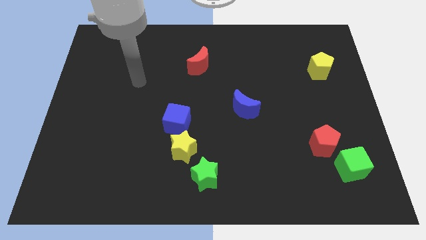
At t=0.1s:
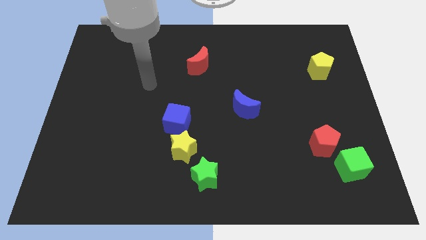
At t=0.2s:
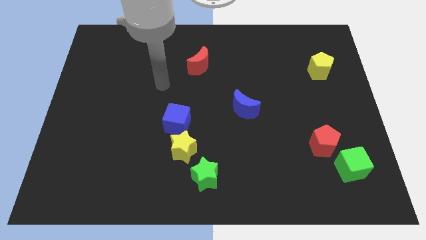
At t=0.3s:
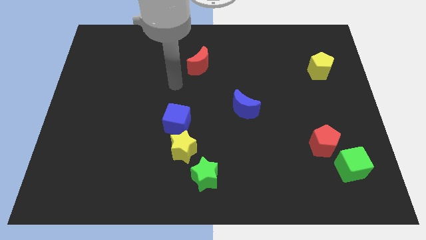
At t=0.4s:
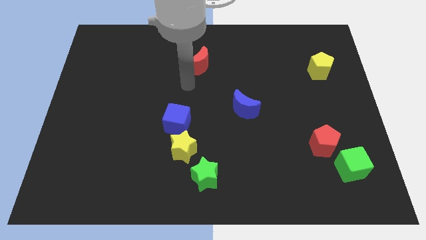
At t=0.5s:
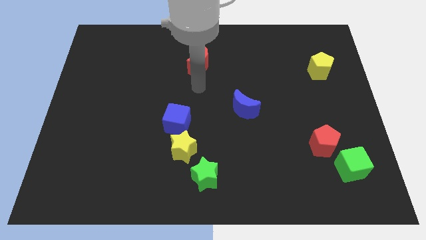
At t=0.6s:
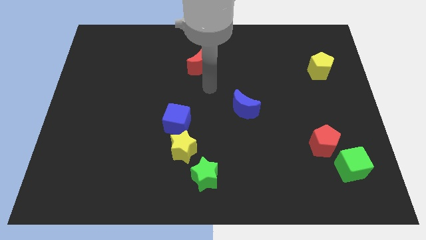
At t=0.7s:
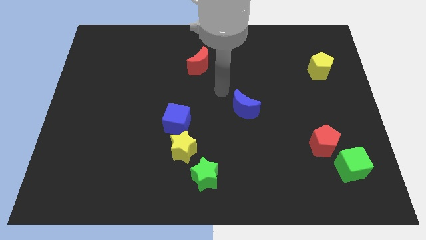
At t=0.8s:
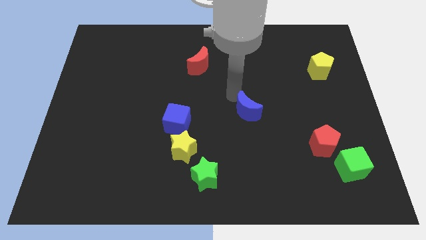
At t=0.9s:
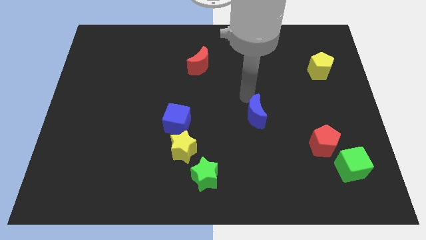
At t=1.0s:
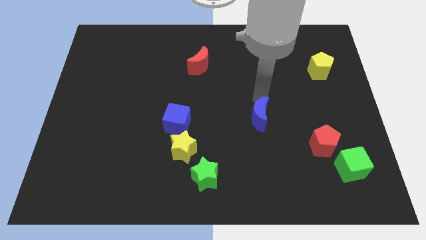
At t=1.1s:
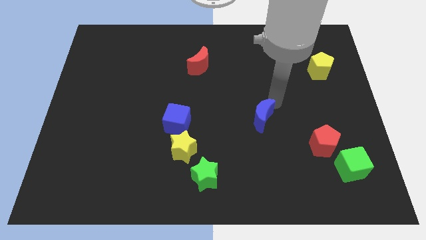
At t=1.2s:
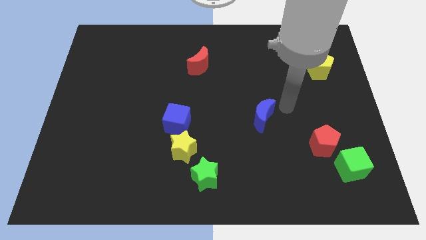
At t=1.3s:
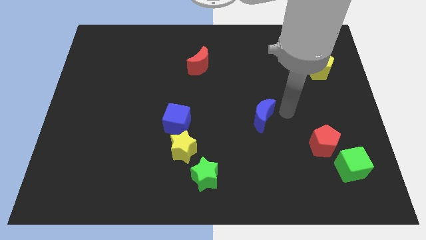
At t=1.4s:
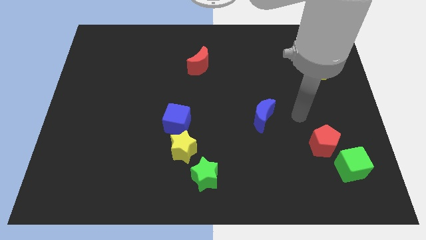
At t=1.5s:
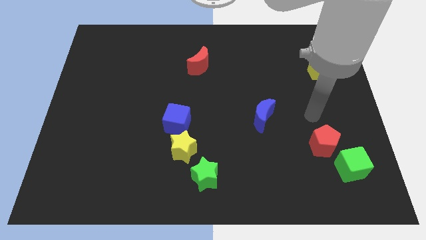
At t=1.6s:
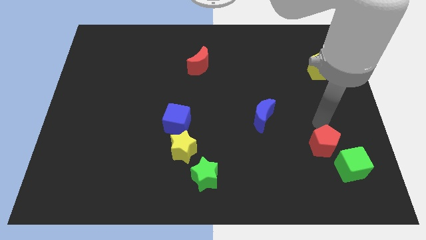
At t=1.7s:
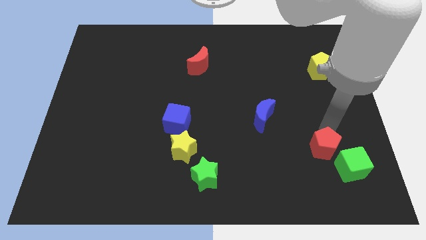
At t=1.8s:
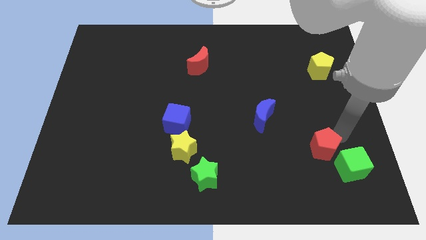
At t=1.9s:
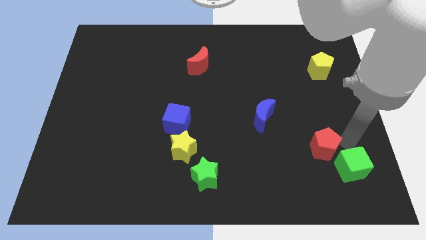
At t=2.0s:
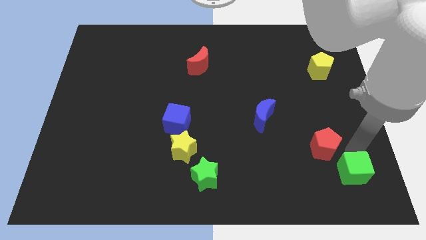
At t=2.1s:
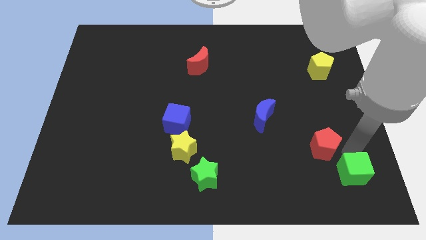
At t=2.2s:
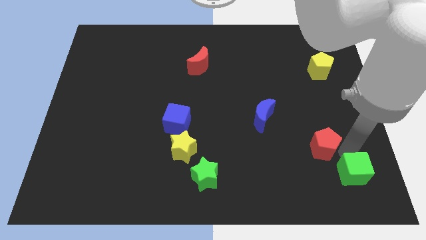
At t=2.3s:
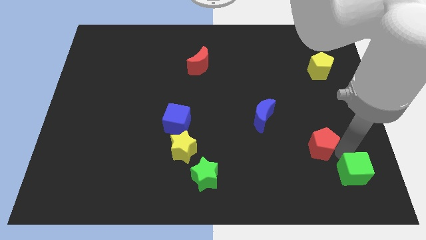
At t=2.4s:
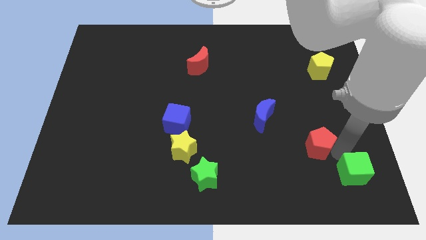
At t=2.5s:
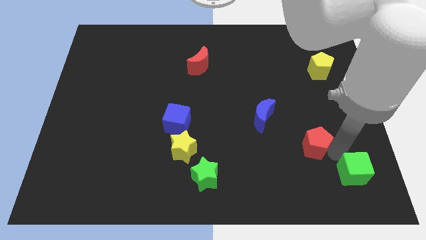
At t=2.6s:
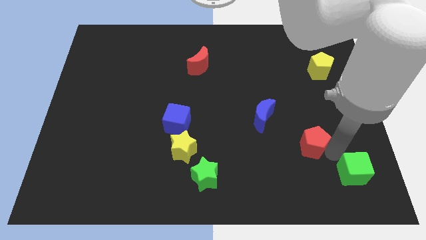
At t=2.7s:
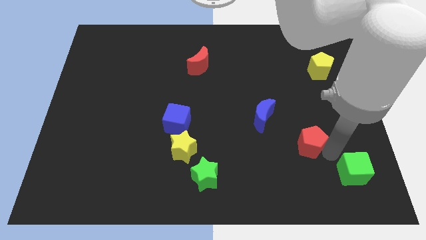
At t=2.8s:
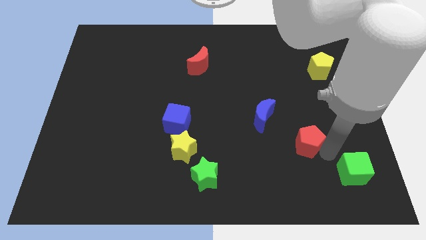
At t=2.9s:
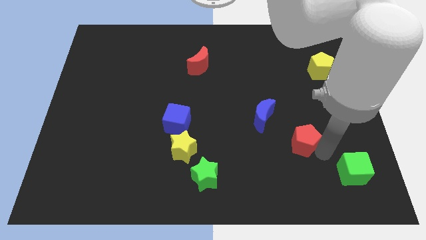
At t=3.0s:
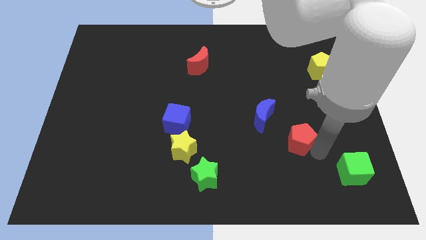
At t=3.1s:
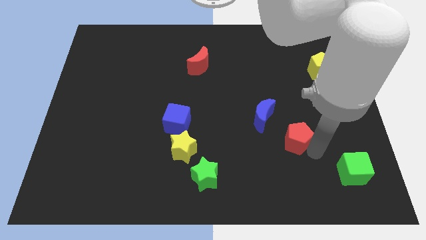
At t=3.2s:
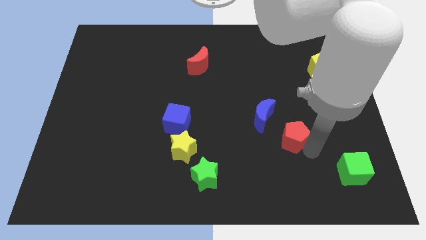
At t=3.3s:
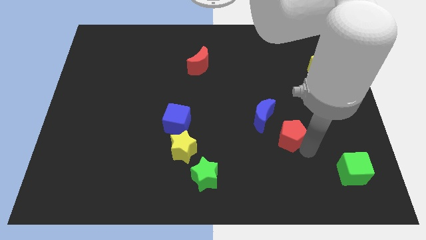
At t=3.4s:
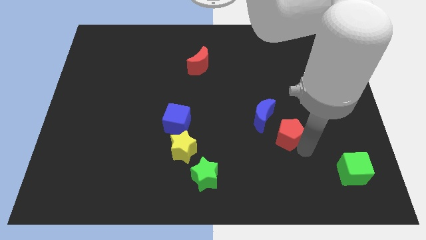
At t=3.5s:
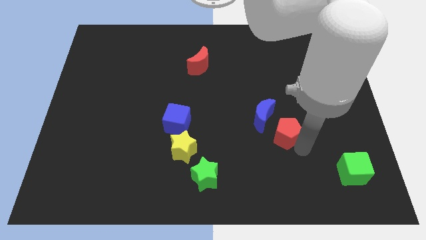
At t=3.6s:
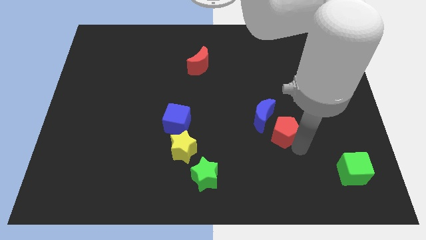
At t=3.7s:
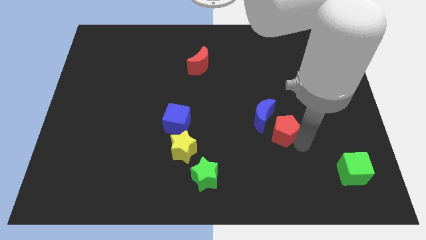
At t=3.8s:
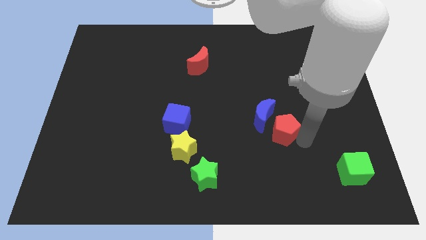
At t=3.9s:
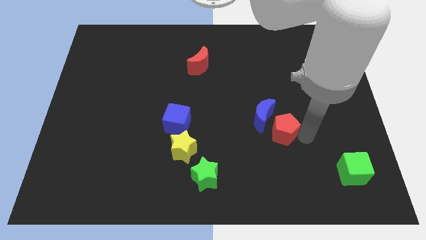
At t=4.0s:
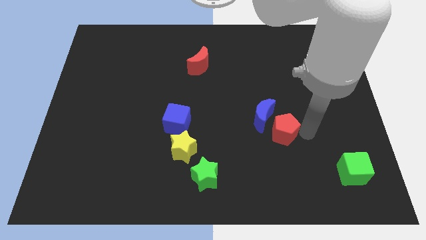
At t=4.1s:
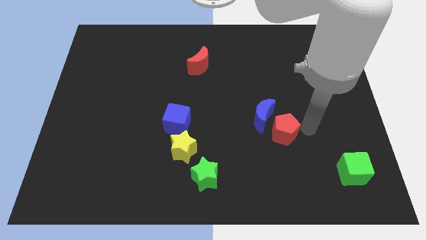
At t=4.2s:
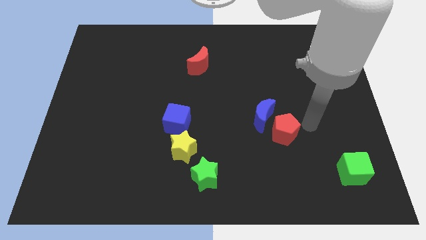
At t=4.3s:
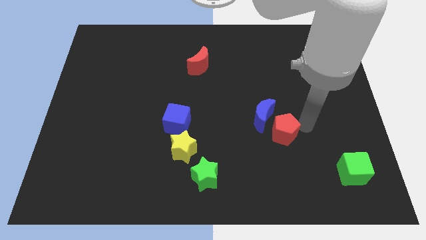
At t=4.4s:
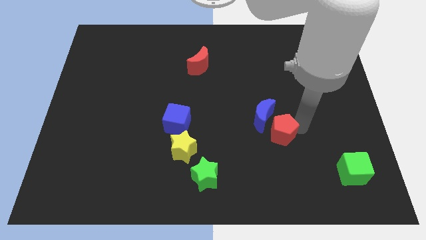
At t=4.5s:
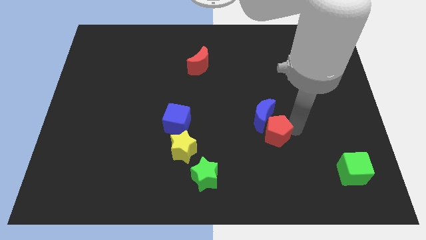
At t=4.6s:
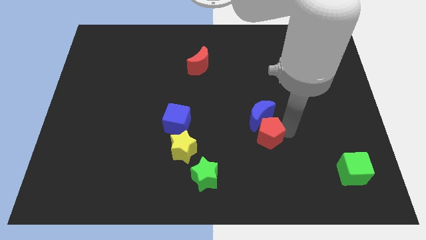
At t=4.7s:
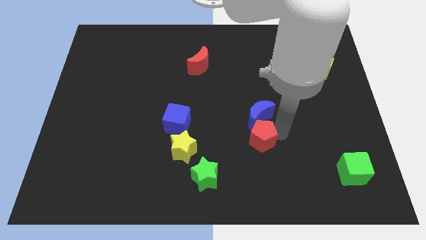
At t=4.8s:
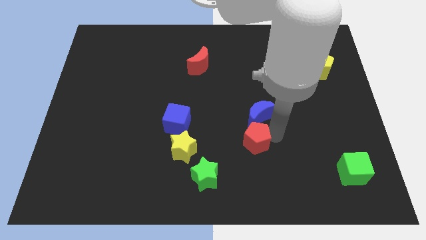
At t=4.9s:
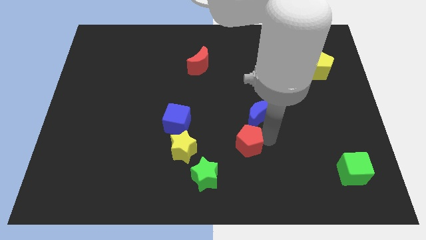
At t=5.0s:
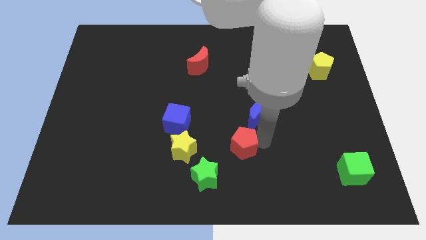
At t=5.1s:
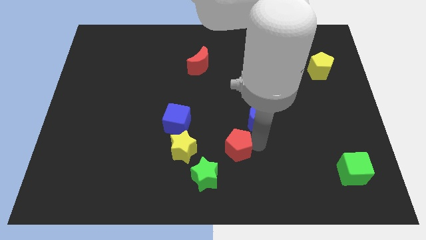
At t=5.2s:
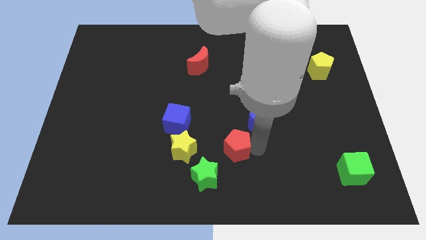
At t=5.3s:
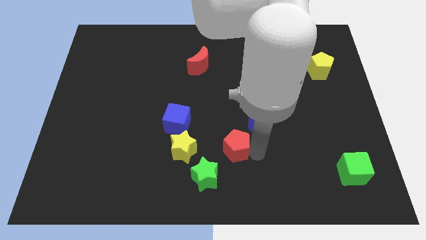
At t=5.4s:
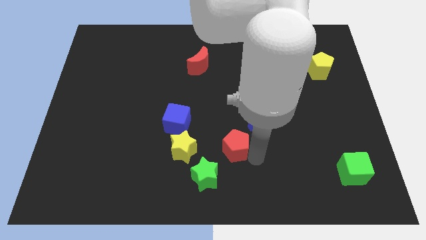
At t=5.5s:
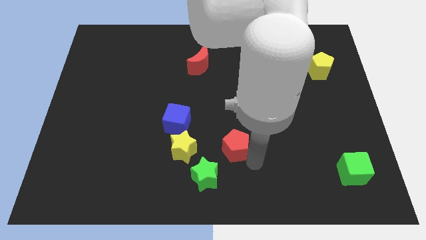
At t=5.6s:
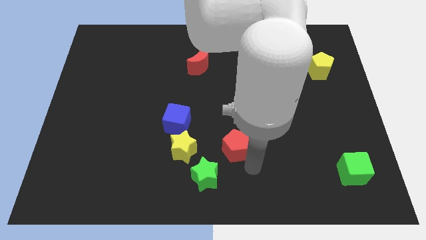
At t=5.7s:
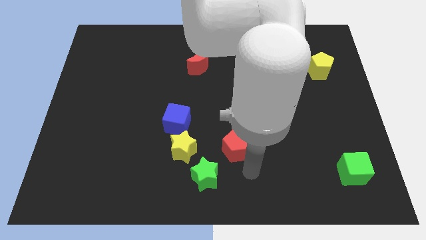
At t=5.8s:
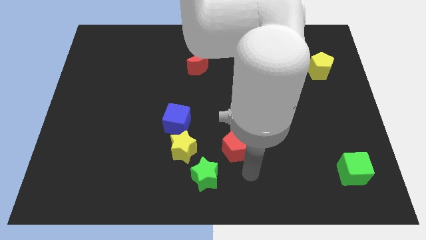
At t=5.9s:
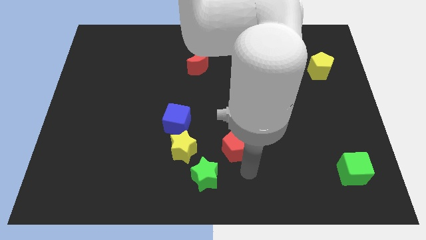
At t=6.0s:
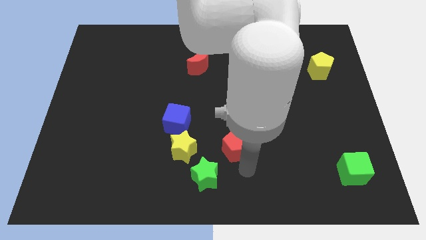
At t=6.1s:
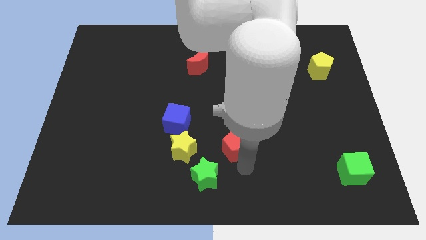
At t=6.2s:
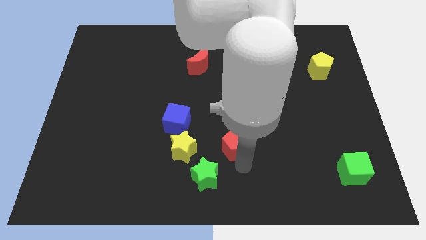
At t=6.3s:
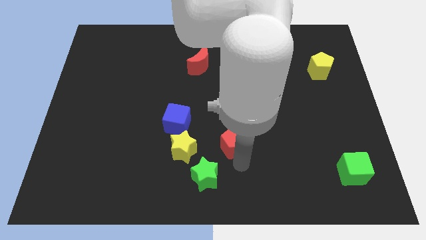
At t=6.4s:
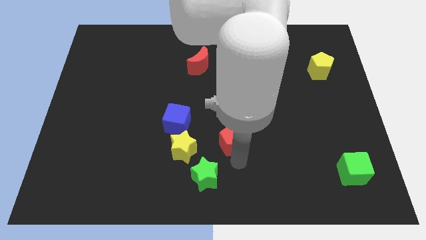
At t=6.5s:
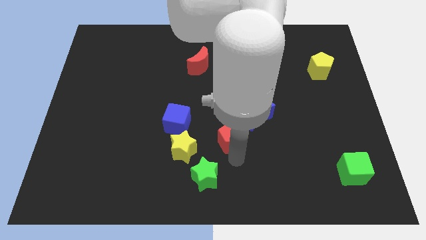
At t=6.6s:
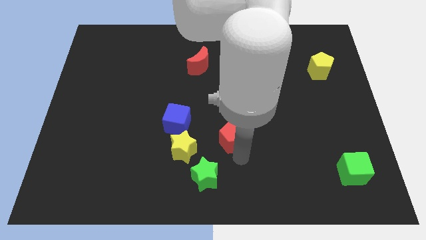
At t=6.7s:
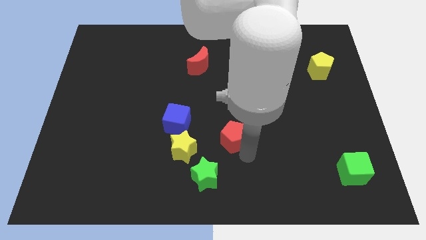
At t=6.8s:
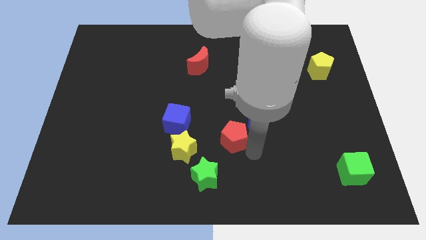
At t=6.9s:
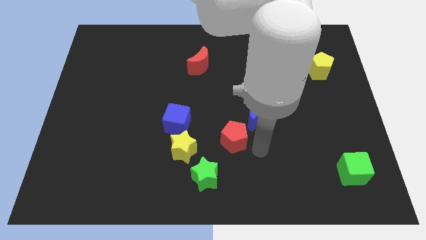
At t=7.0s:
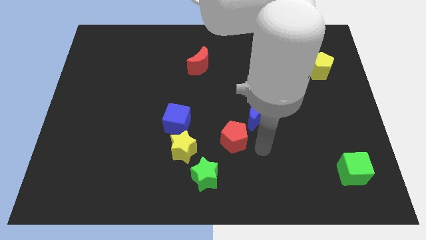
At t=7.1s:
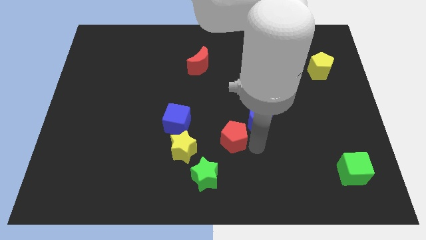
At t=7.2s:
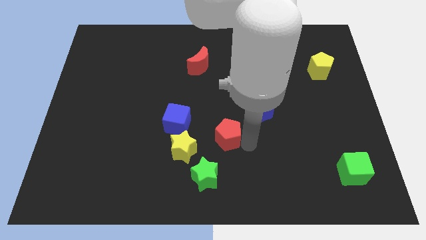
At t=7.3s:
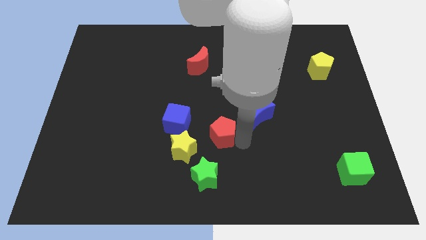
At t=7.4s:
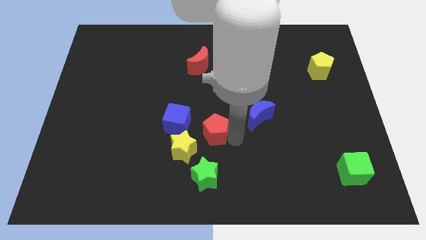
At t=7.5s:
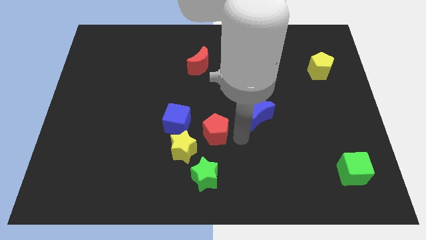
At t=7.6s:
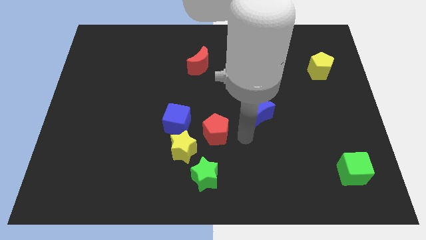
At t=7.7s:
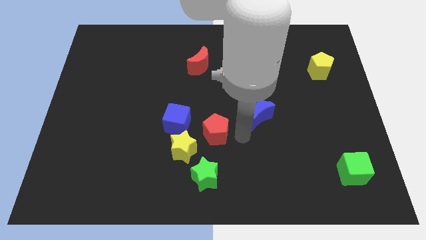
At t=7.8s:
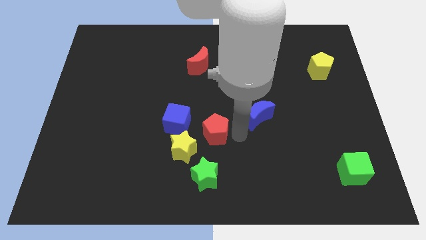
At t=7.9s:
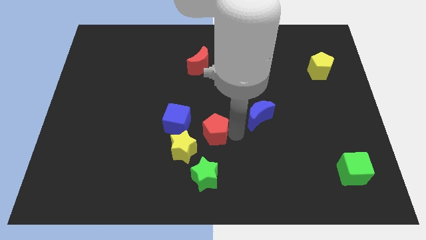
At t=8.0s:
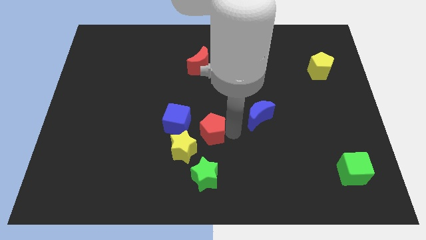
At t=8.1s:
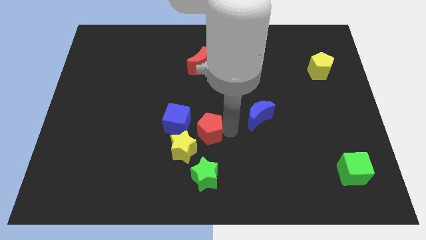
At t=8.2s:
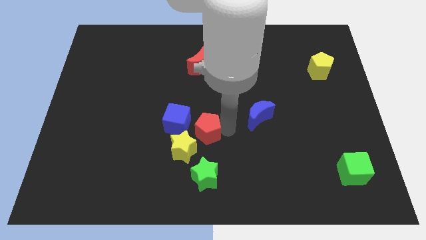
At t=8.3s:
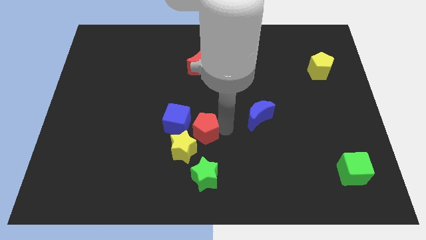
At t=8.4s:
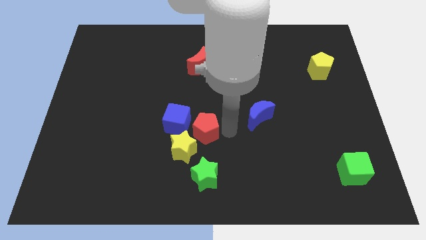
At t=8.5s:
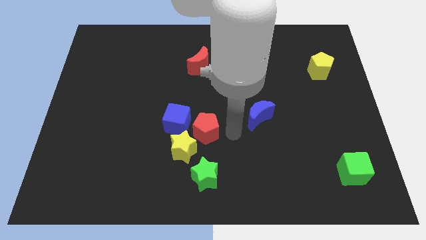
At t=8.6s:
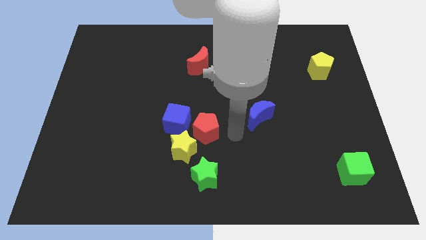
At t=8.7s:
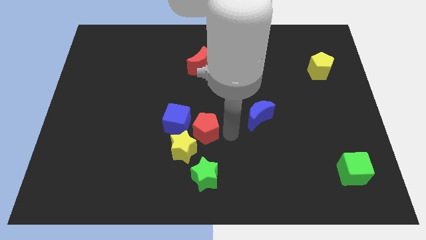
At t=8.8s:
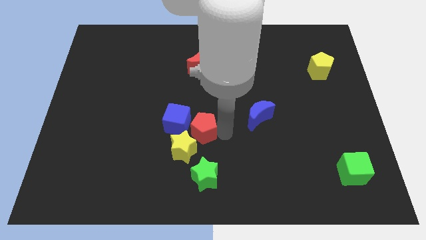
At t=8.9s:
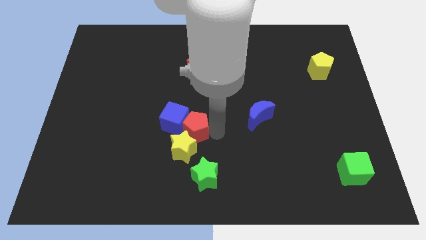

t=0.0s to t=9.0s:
slide the red pentagon towards the blue cube
